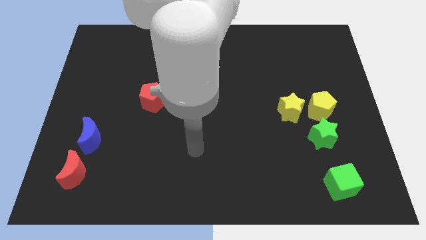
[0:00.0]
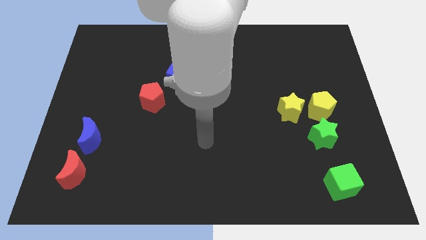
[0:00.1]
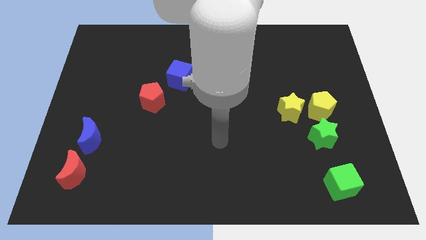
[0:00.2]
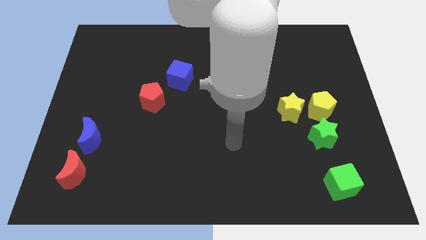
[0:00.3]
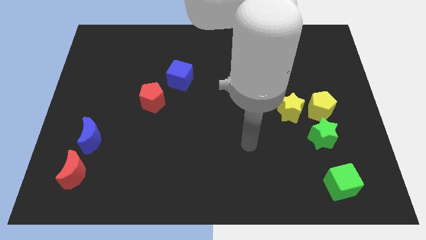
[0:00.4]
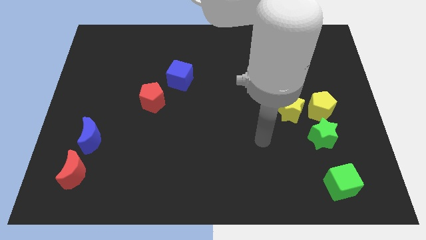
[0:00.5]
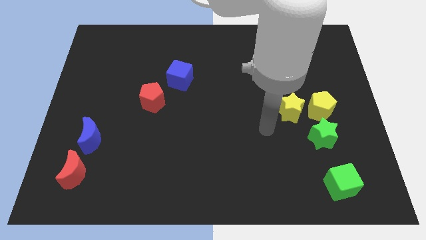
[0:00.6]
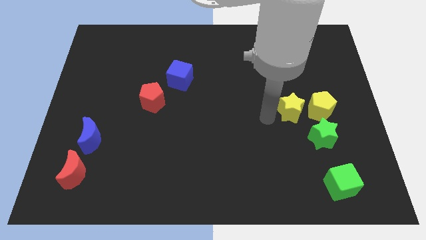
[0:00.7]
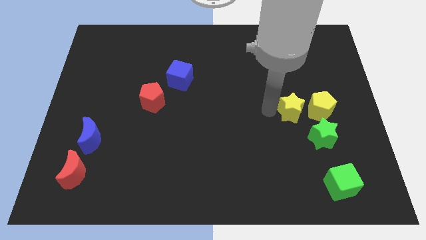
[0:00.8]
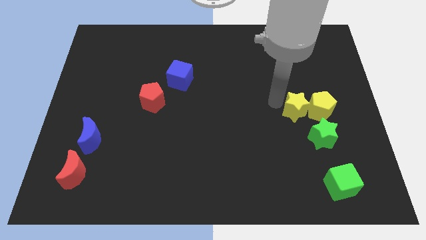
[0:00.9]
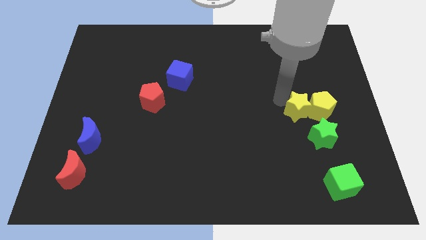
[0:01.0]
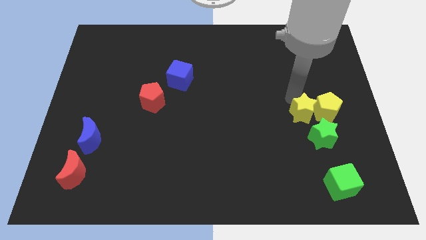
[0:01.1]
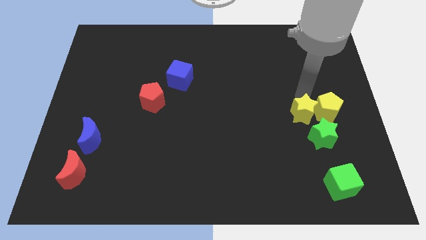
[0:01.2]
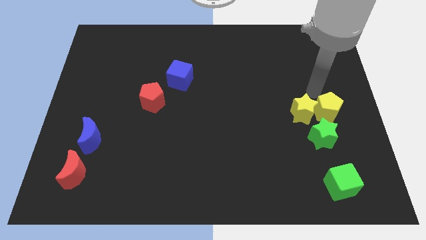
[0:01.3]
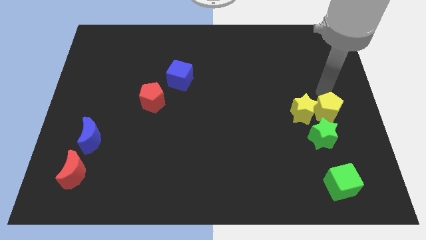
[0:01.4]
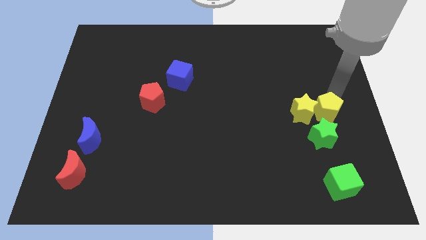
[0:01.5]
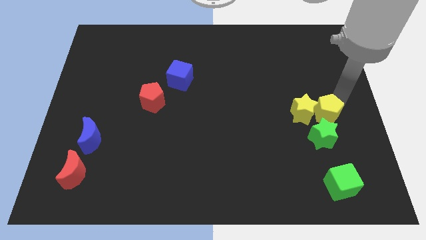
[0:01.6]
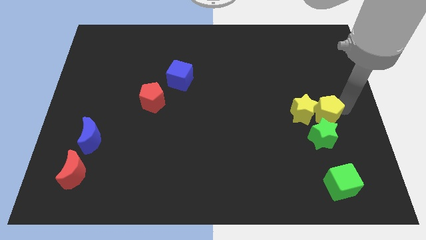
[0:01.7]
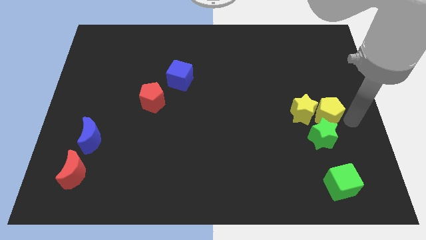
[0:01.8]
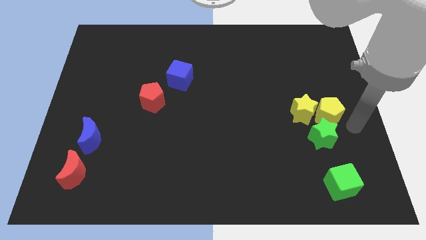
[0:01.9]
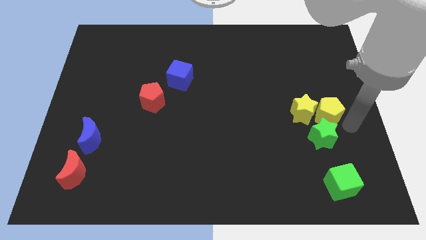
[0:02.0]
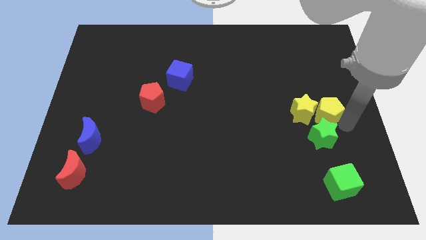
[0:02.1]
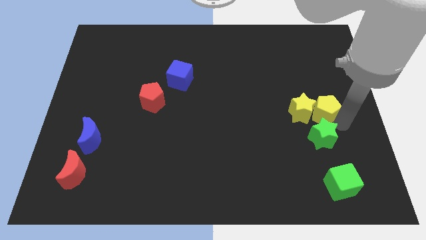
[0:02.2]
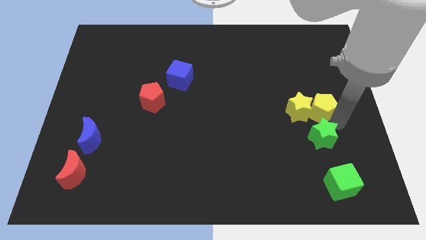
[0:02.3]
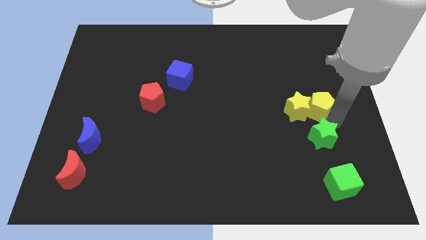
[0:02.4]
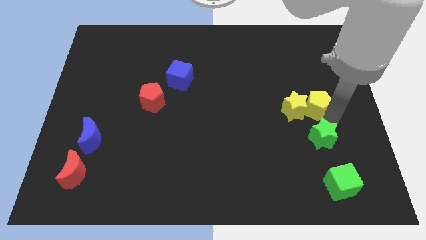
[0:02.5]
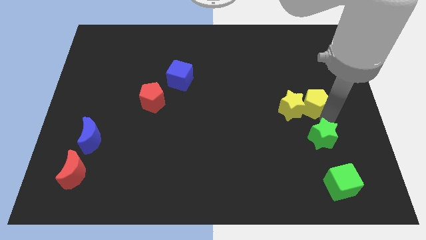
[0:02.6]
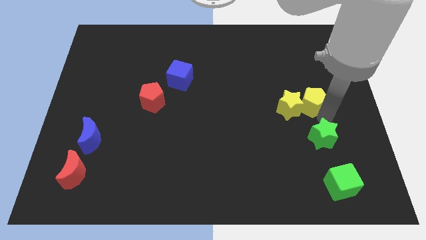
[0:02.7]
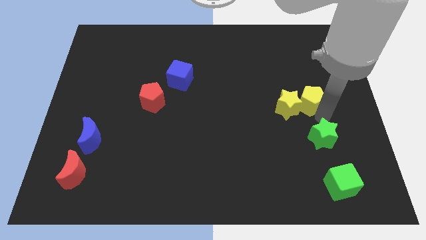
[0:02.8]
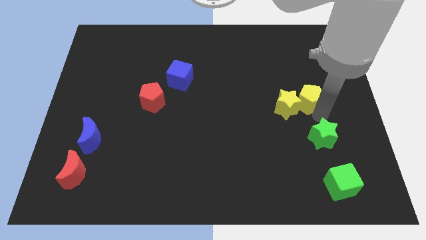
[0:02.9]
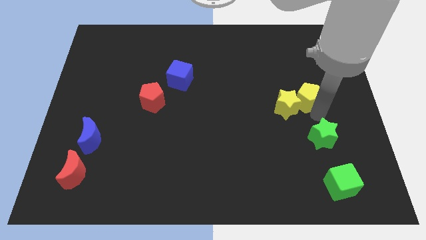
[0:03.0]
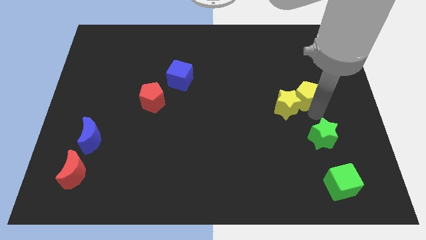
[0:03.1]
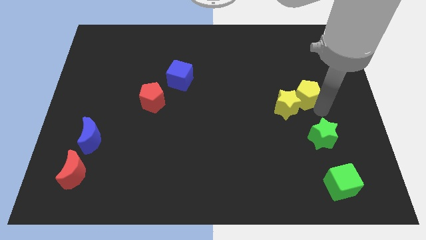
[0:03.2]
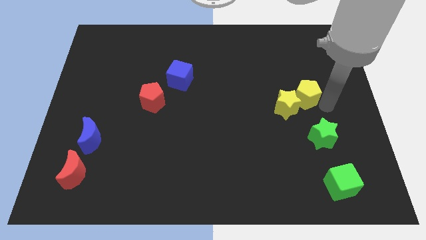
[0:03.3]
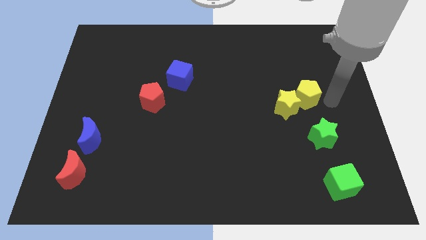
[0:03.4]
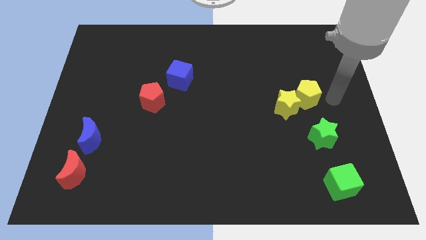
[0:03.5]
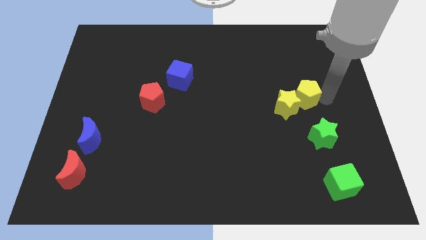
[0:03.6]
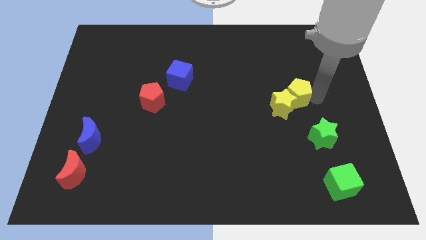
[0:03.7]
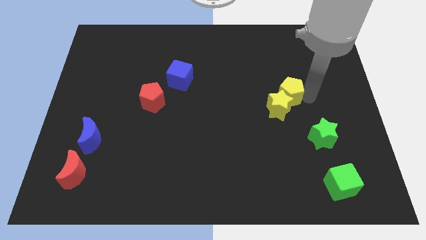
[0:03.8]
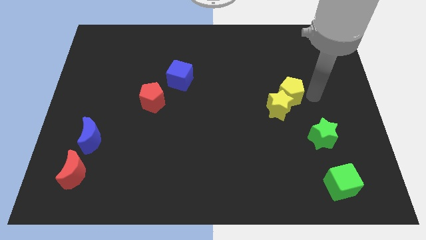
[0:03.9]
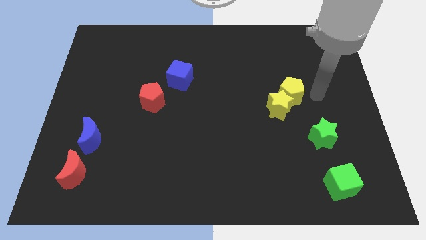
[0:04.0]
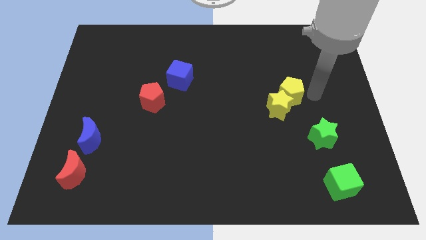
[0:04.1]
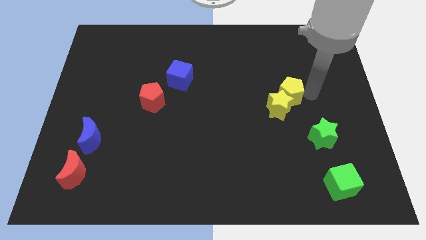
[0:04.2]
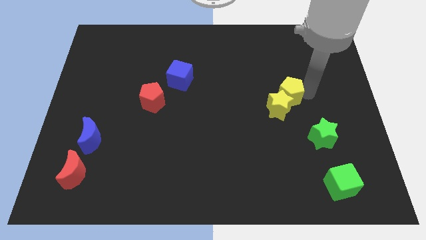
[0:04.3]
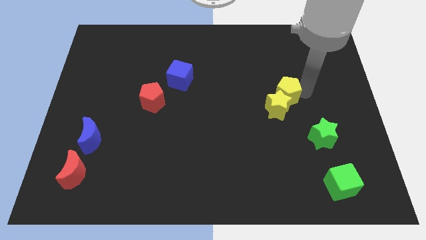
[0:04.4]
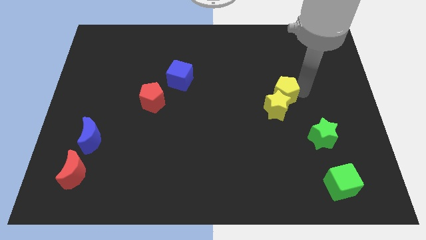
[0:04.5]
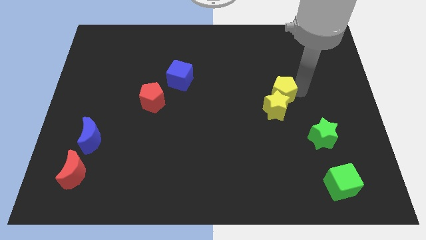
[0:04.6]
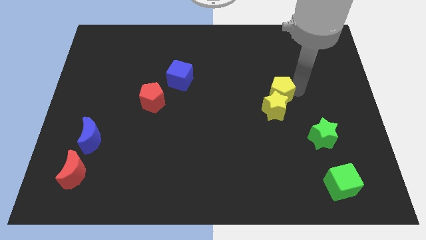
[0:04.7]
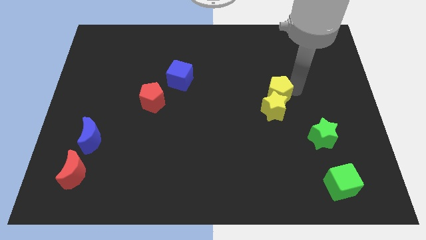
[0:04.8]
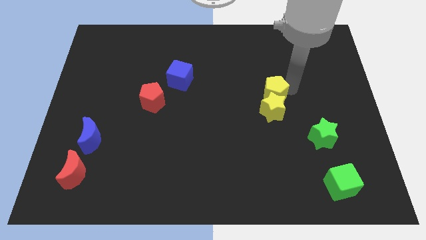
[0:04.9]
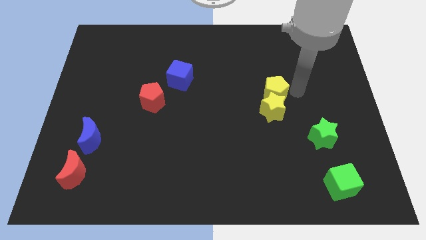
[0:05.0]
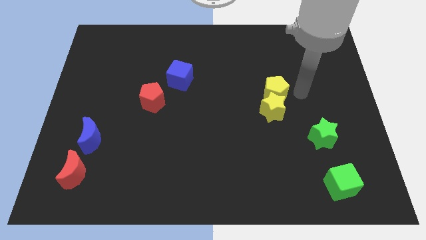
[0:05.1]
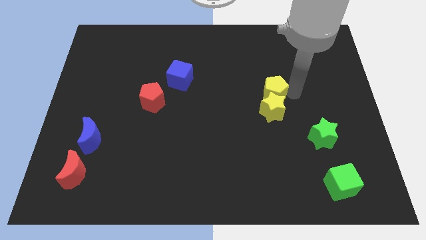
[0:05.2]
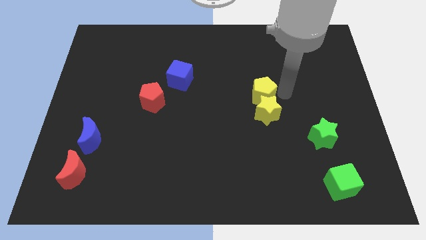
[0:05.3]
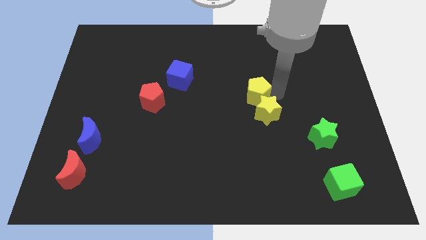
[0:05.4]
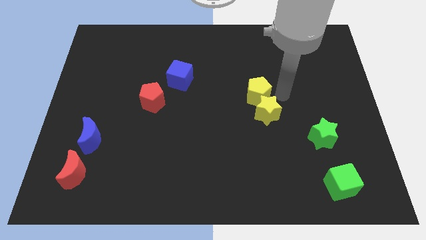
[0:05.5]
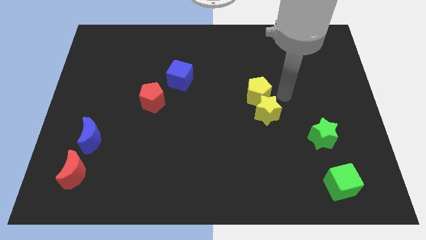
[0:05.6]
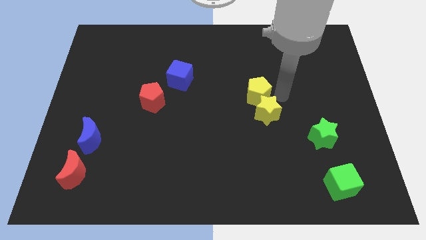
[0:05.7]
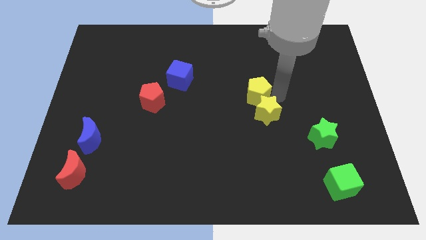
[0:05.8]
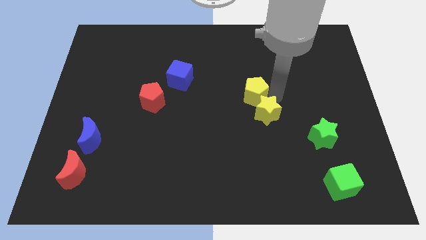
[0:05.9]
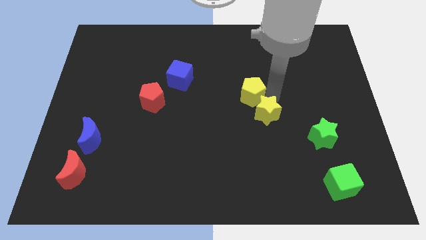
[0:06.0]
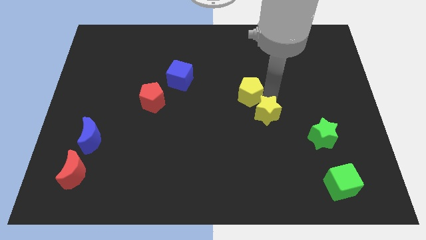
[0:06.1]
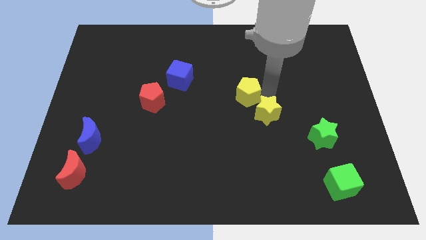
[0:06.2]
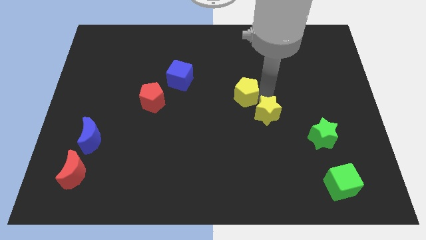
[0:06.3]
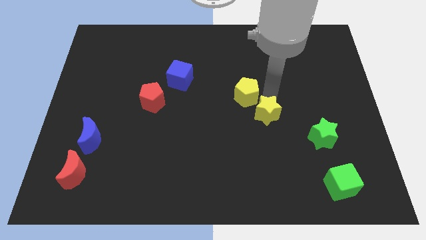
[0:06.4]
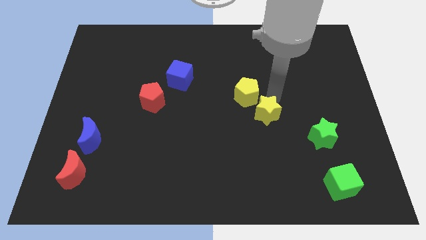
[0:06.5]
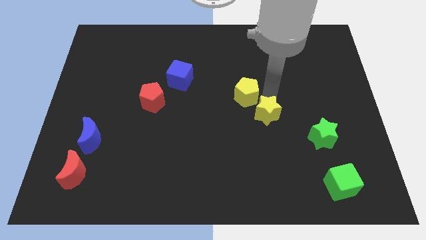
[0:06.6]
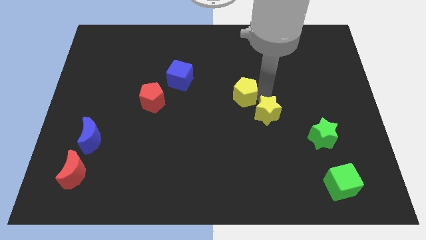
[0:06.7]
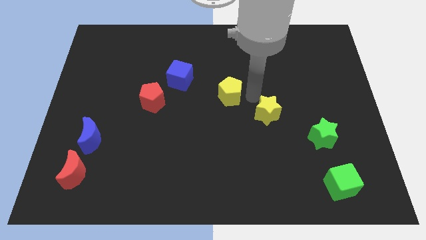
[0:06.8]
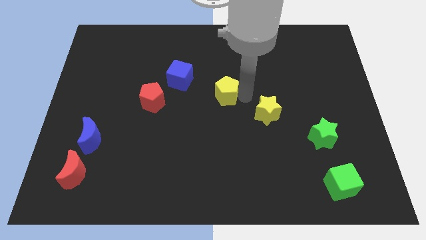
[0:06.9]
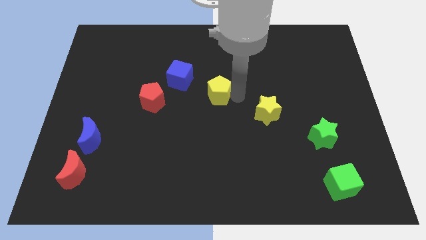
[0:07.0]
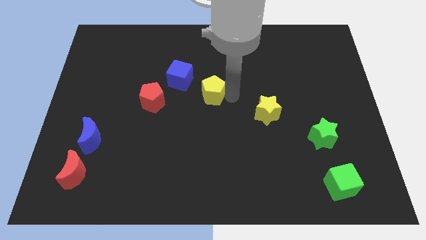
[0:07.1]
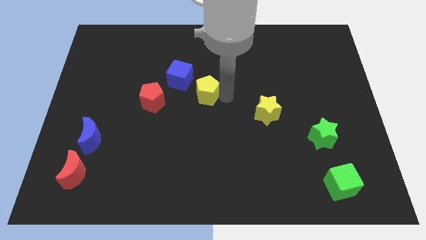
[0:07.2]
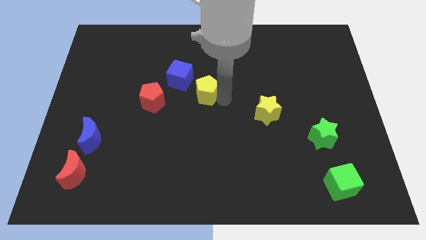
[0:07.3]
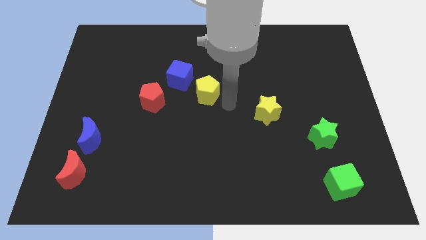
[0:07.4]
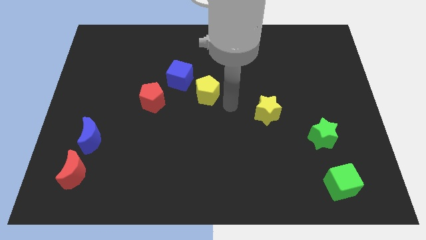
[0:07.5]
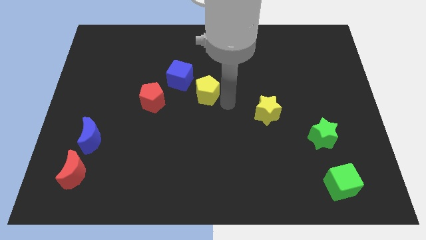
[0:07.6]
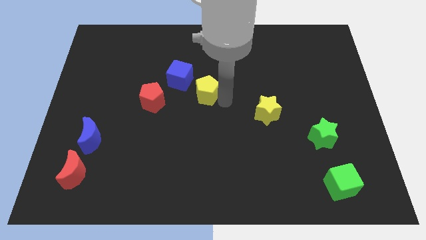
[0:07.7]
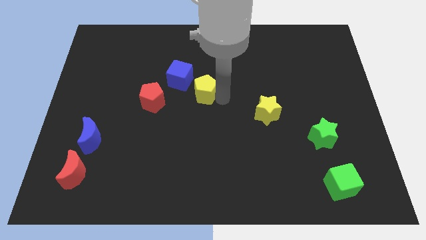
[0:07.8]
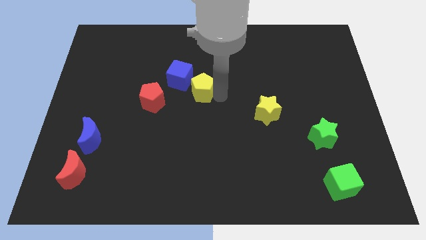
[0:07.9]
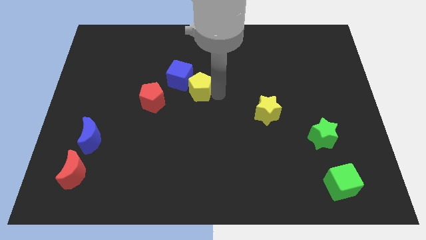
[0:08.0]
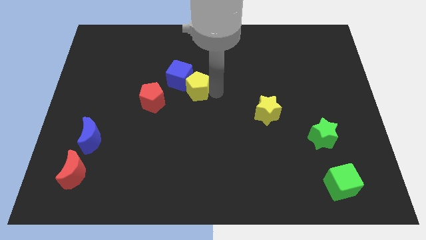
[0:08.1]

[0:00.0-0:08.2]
move the yellow pentagon towards the blue cube
